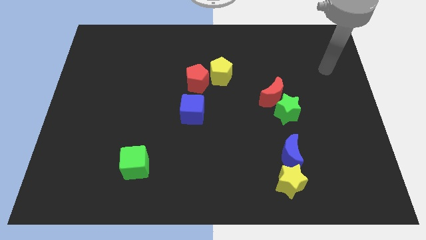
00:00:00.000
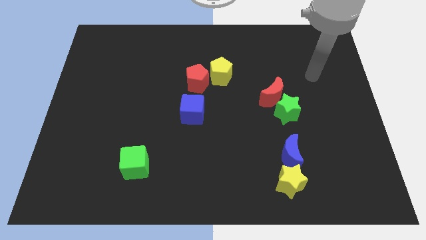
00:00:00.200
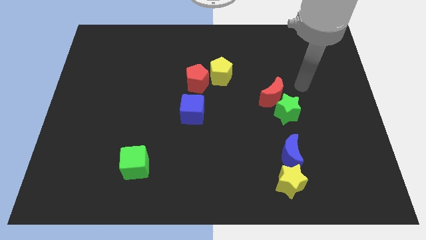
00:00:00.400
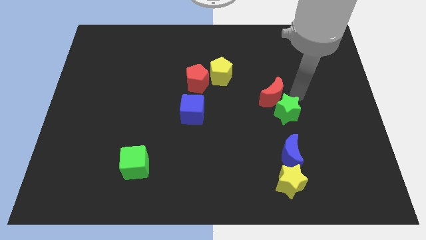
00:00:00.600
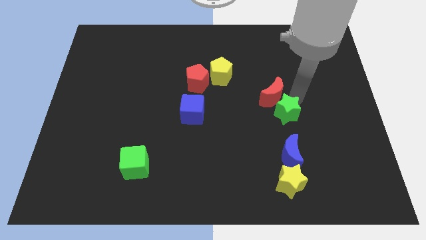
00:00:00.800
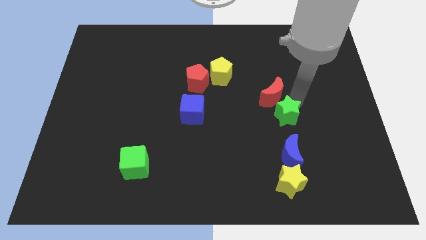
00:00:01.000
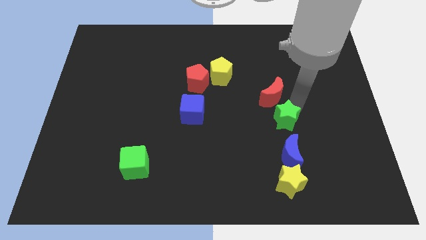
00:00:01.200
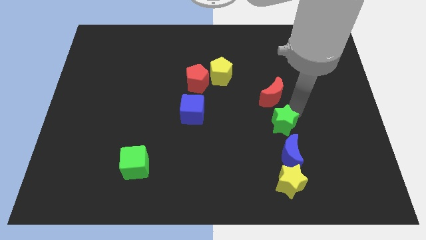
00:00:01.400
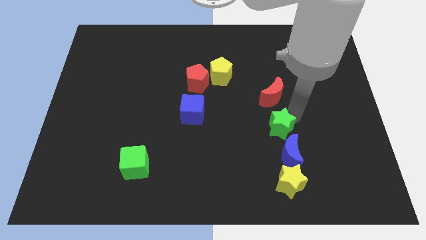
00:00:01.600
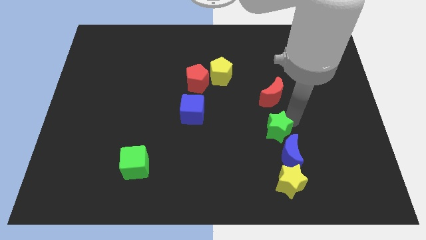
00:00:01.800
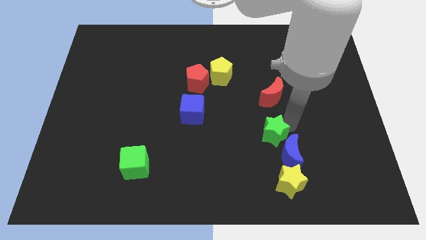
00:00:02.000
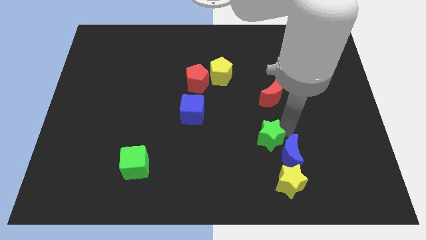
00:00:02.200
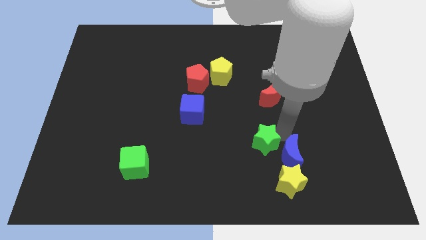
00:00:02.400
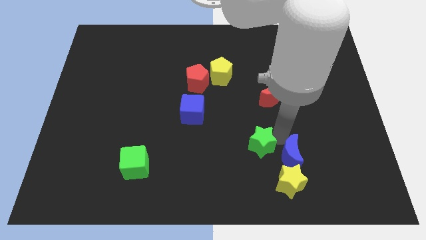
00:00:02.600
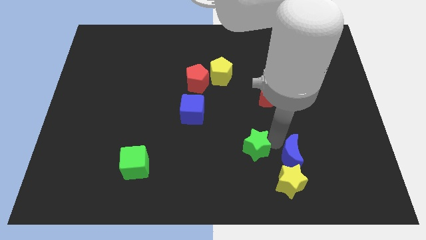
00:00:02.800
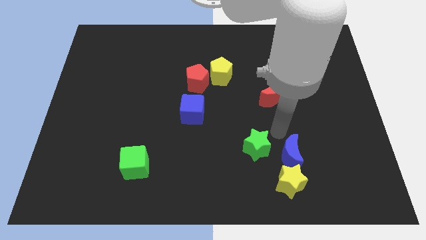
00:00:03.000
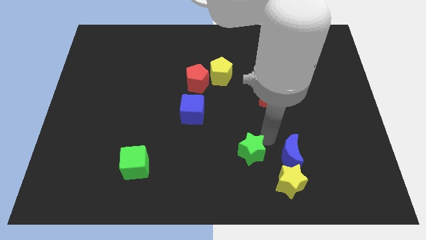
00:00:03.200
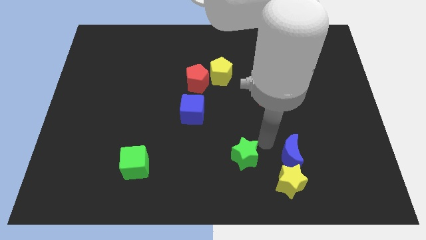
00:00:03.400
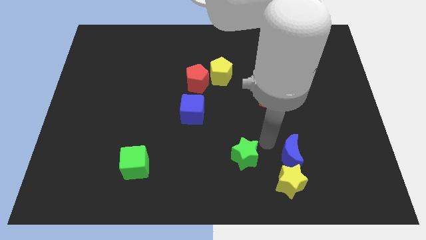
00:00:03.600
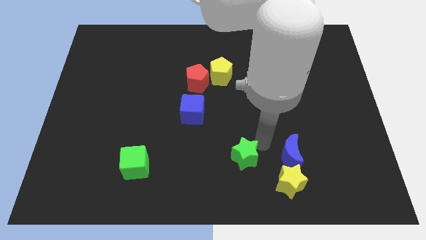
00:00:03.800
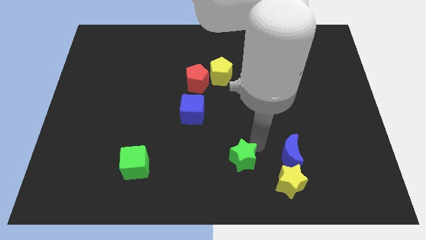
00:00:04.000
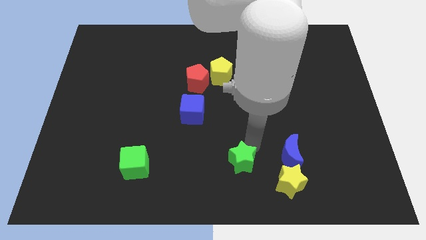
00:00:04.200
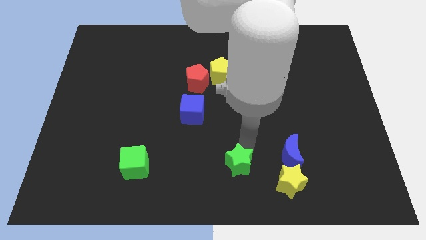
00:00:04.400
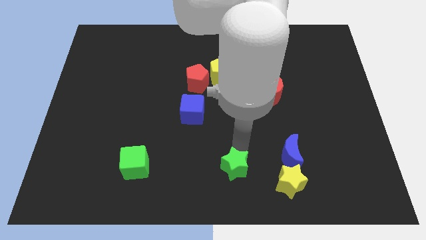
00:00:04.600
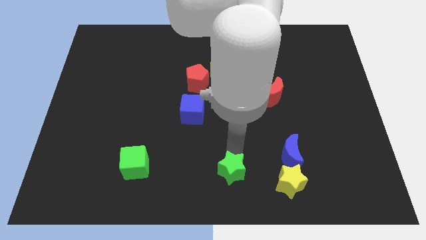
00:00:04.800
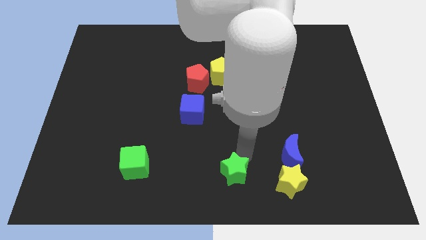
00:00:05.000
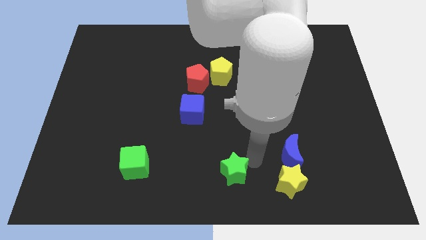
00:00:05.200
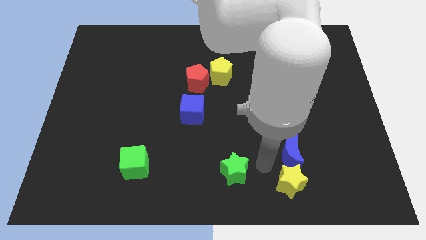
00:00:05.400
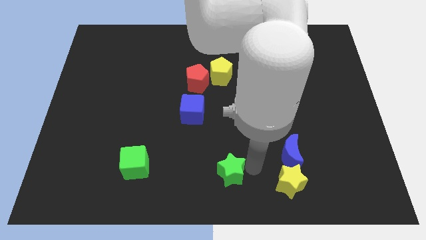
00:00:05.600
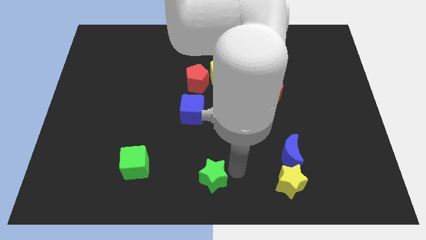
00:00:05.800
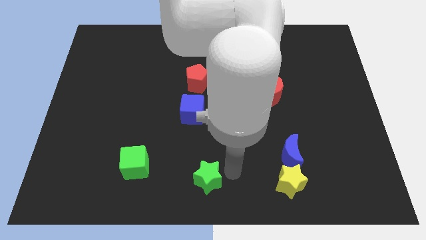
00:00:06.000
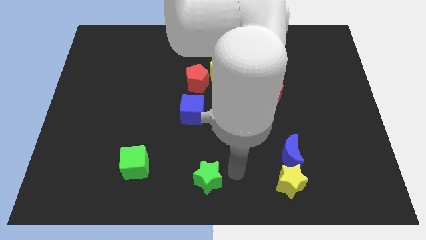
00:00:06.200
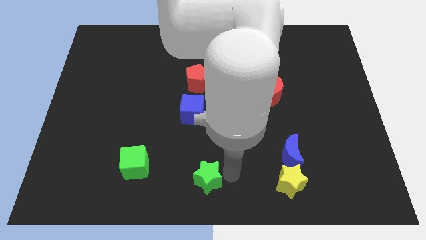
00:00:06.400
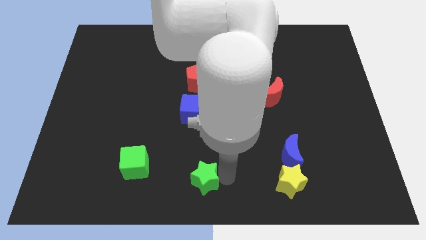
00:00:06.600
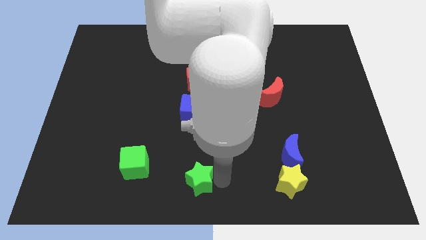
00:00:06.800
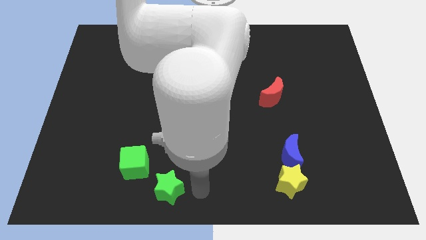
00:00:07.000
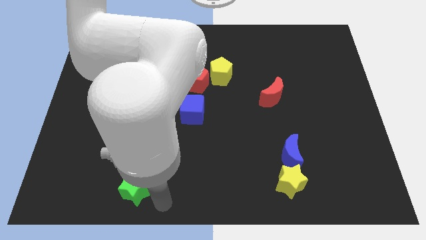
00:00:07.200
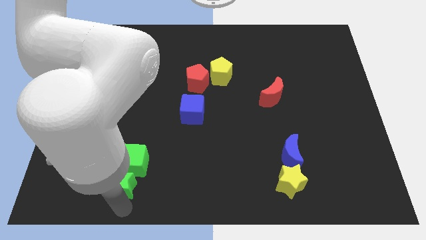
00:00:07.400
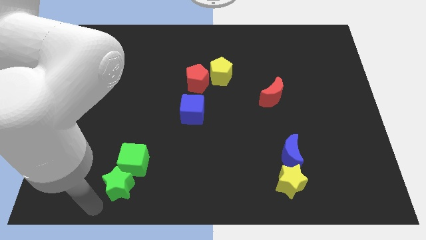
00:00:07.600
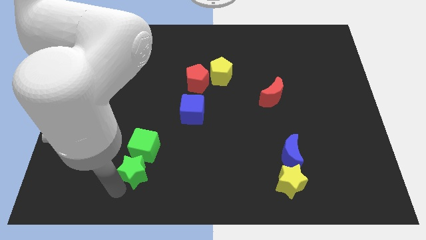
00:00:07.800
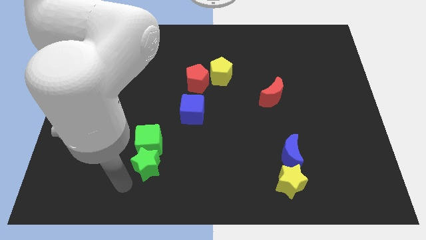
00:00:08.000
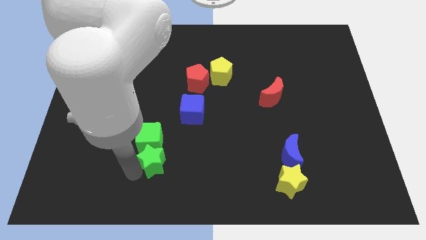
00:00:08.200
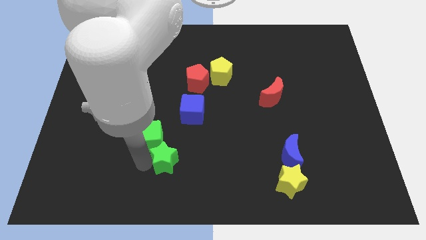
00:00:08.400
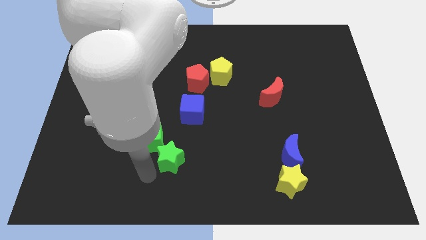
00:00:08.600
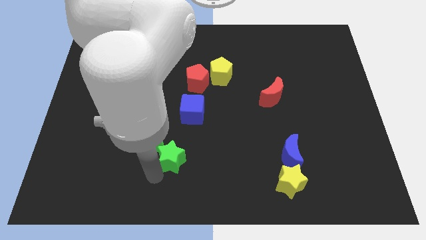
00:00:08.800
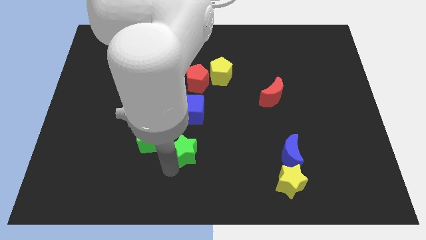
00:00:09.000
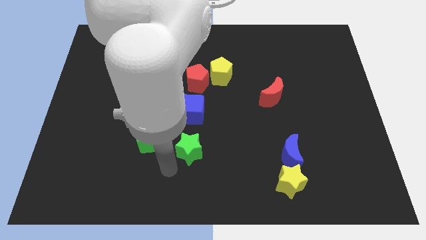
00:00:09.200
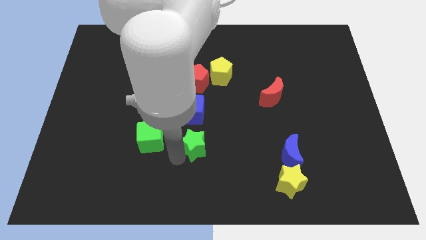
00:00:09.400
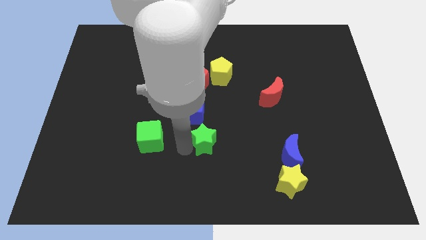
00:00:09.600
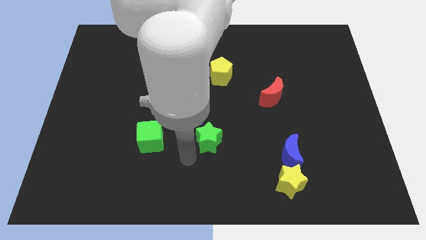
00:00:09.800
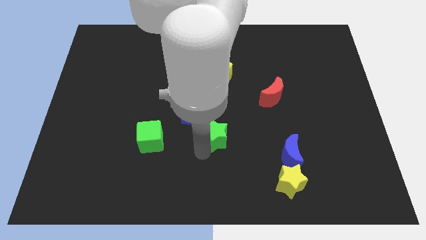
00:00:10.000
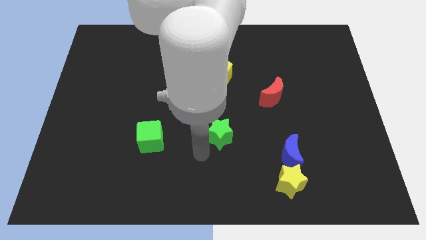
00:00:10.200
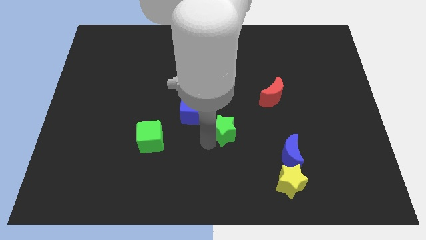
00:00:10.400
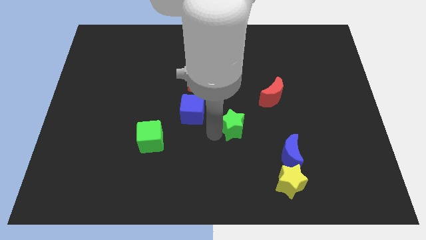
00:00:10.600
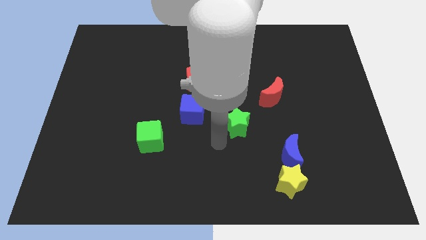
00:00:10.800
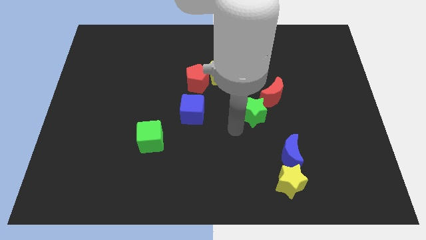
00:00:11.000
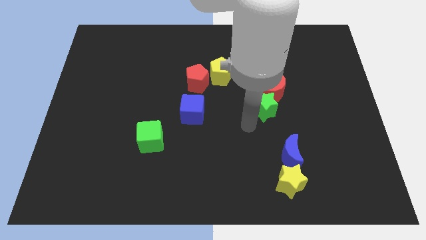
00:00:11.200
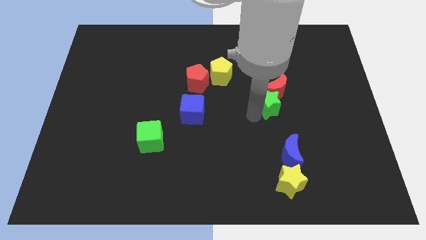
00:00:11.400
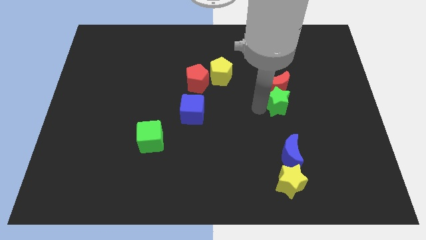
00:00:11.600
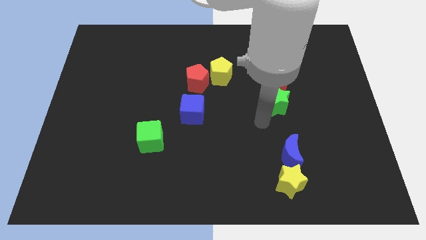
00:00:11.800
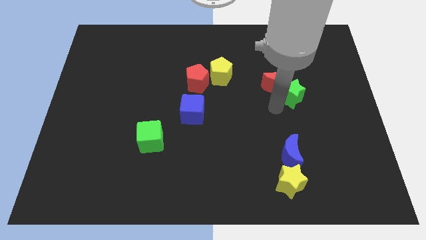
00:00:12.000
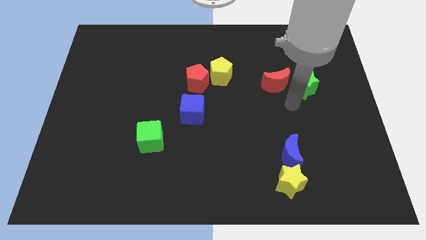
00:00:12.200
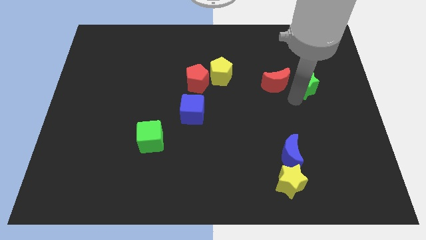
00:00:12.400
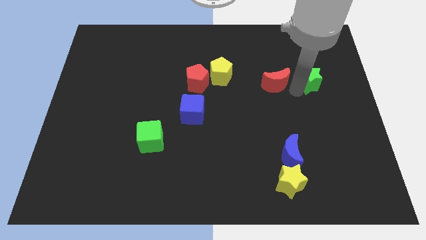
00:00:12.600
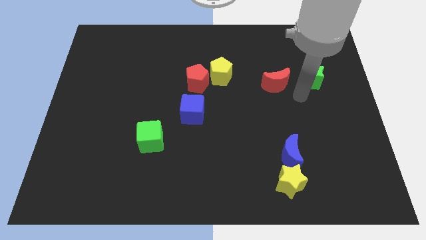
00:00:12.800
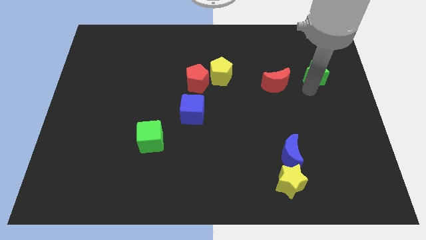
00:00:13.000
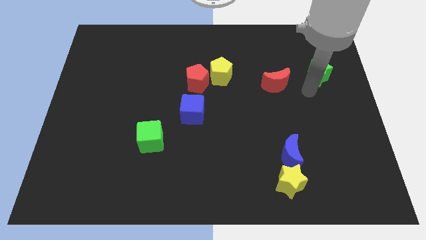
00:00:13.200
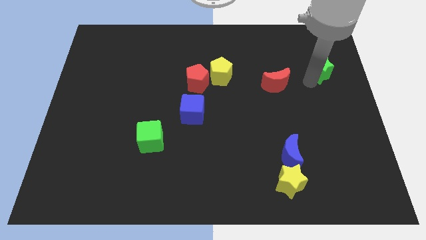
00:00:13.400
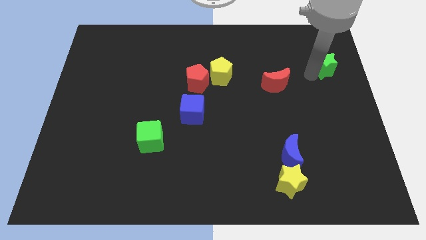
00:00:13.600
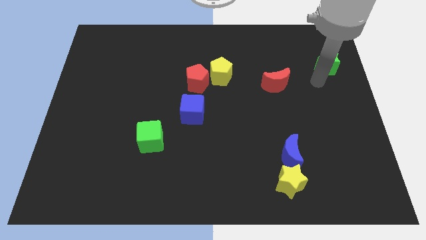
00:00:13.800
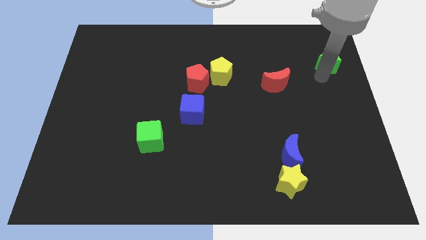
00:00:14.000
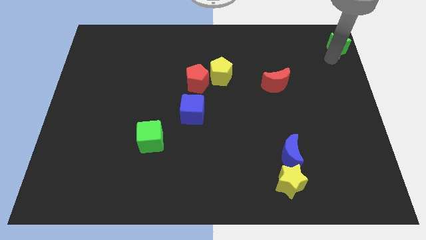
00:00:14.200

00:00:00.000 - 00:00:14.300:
put the green star to the top right corner
